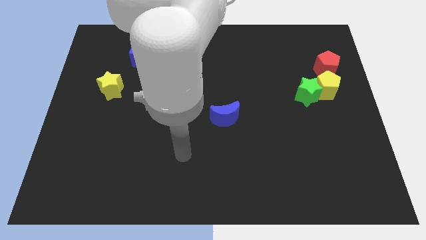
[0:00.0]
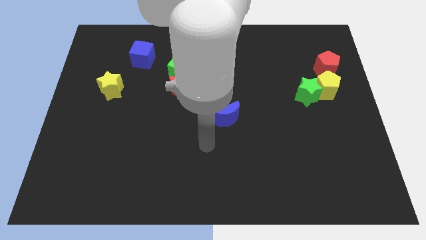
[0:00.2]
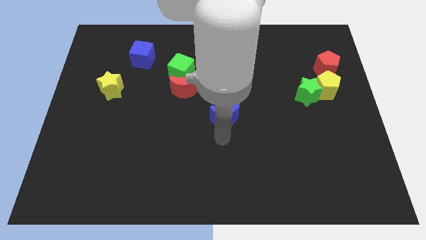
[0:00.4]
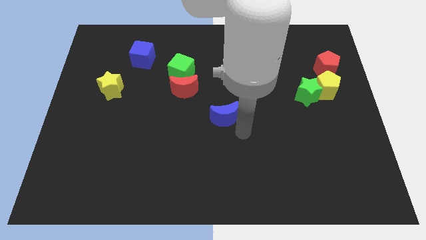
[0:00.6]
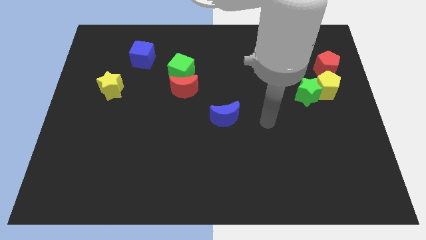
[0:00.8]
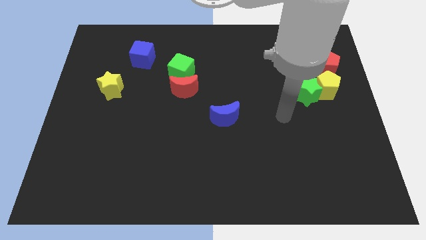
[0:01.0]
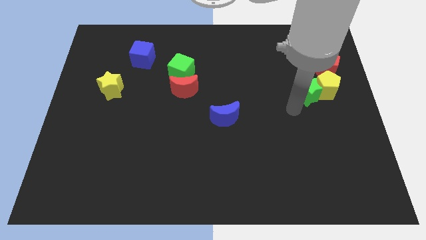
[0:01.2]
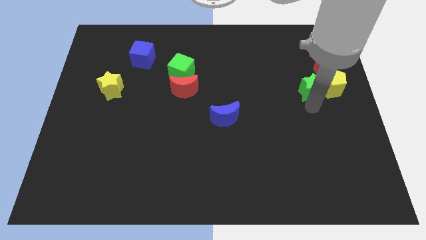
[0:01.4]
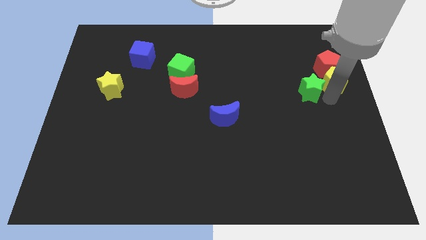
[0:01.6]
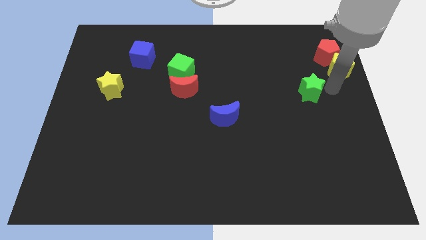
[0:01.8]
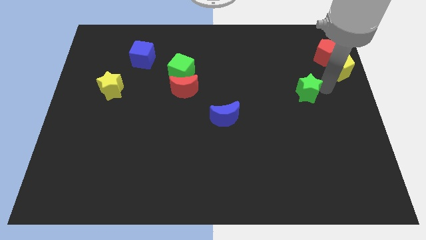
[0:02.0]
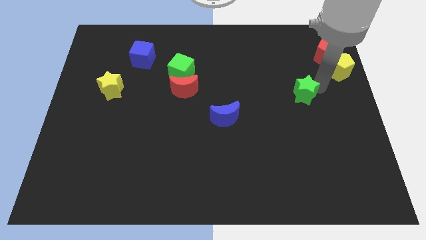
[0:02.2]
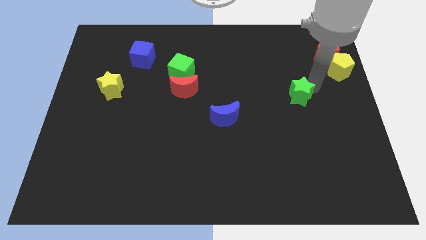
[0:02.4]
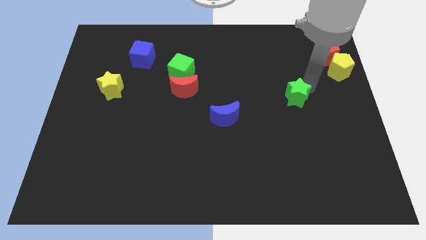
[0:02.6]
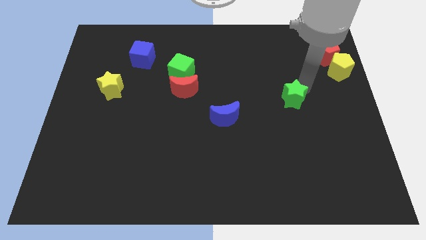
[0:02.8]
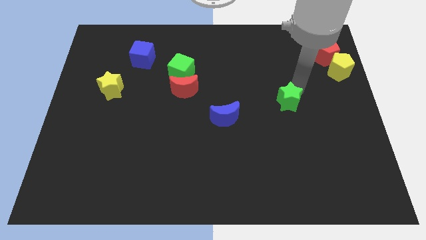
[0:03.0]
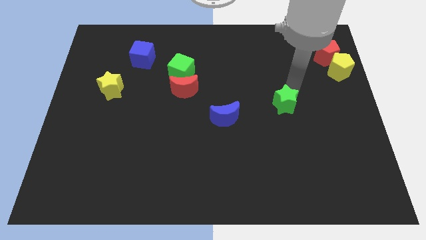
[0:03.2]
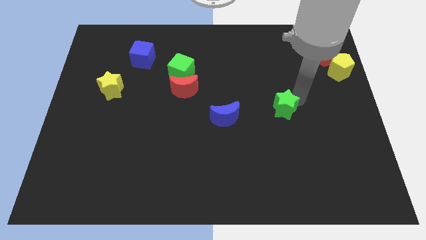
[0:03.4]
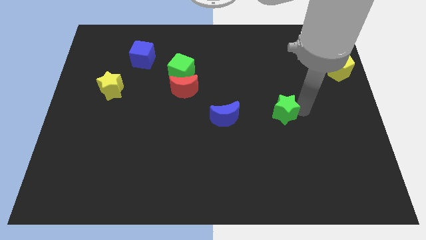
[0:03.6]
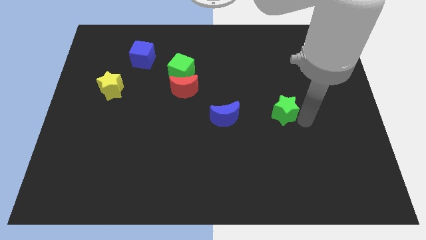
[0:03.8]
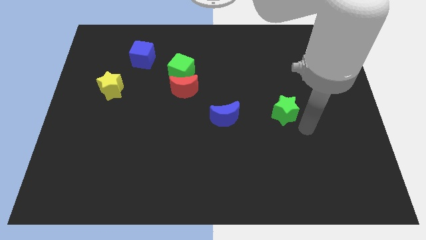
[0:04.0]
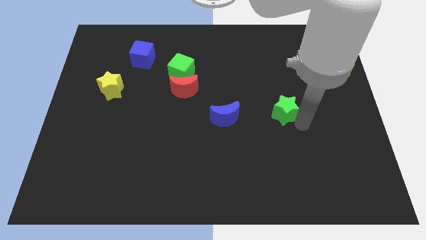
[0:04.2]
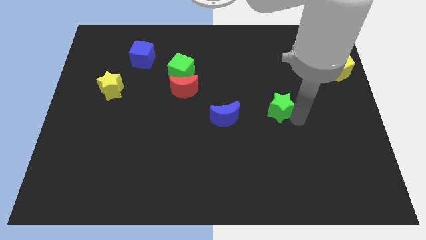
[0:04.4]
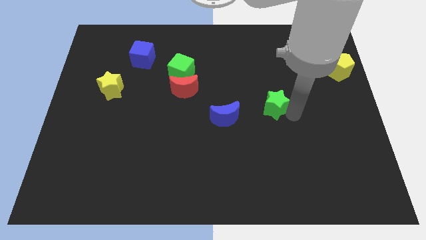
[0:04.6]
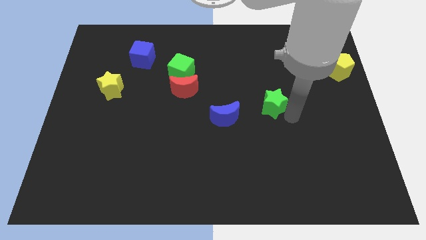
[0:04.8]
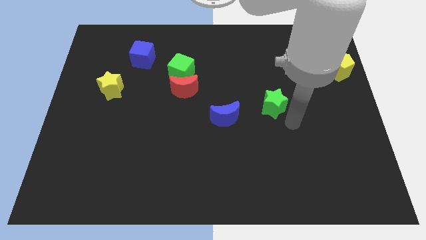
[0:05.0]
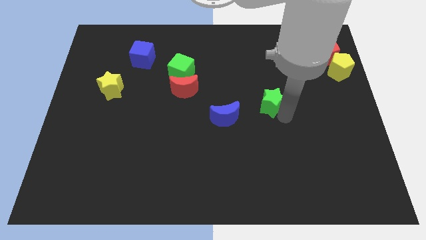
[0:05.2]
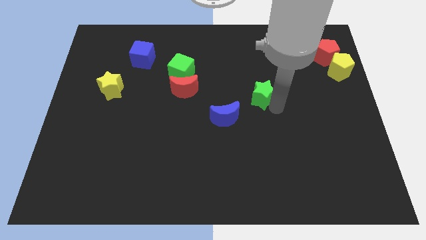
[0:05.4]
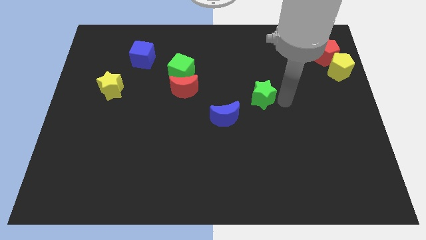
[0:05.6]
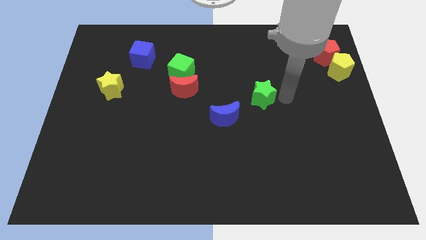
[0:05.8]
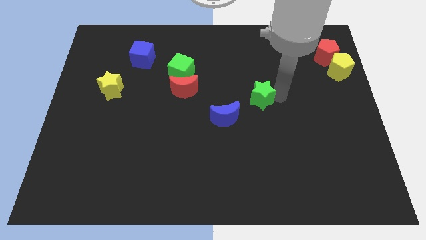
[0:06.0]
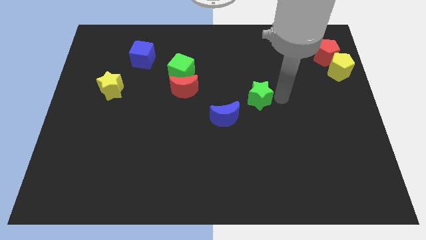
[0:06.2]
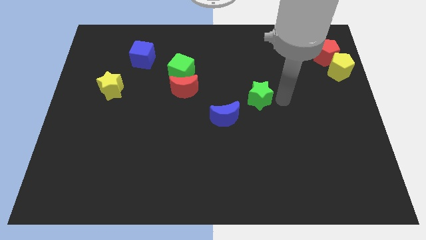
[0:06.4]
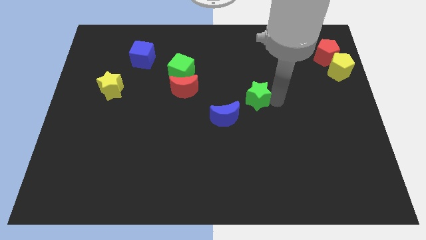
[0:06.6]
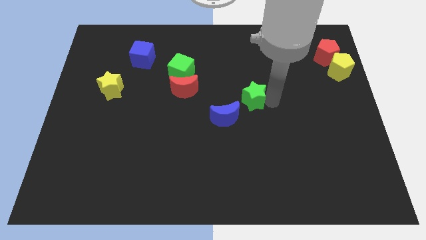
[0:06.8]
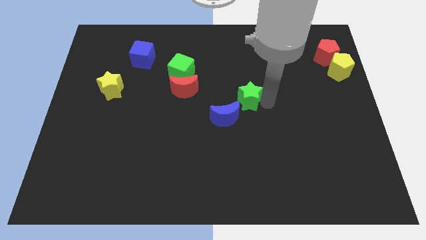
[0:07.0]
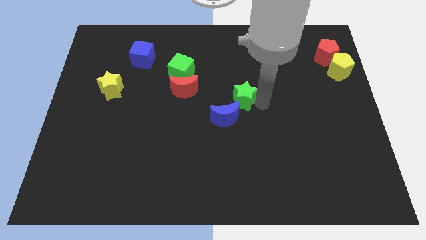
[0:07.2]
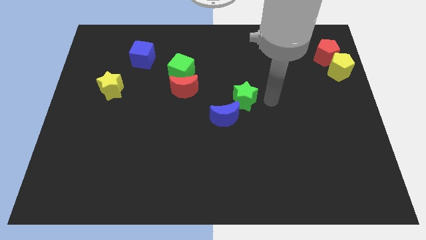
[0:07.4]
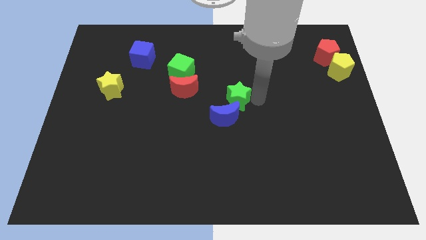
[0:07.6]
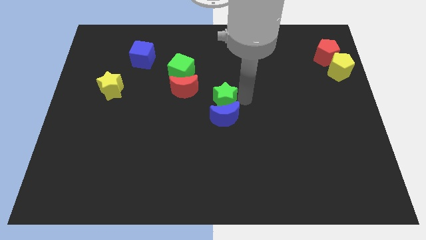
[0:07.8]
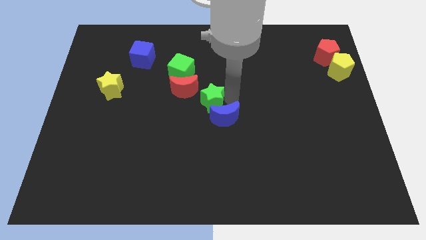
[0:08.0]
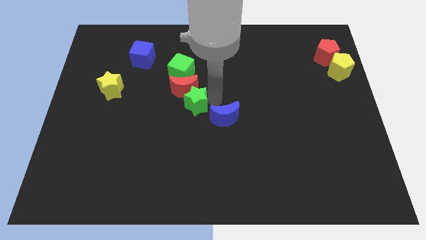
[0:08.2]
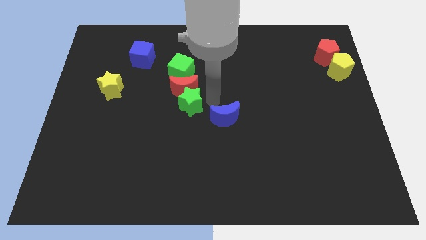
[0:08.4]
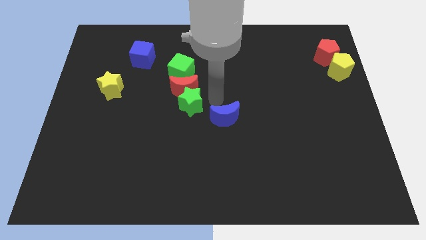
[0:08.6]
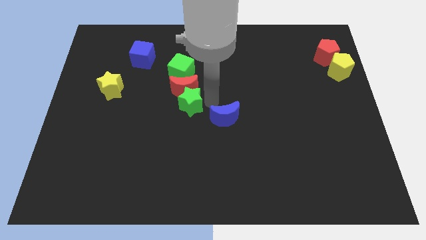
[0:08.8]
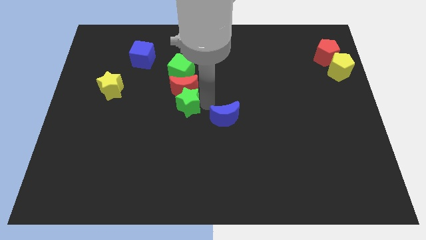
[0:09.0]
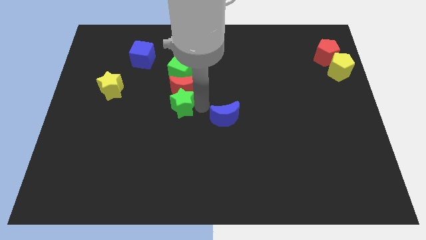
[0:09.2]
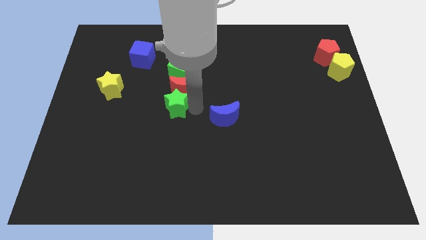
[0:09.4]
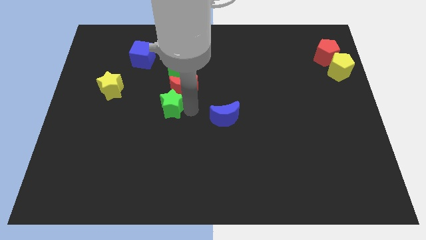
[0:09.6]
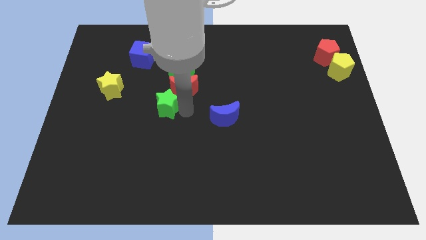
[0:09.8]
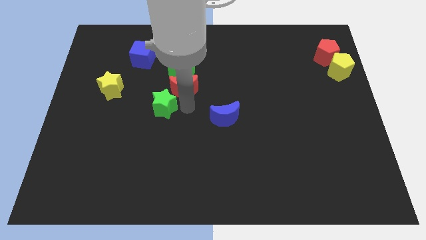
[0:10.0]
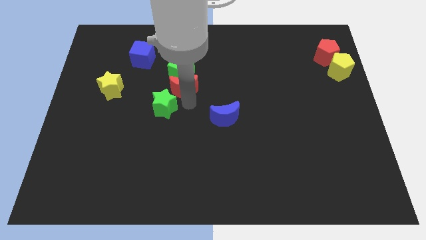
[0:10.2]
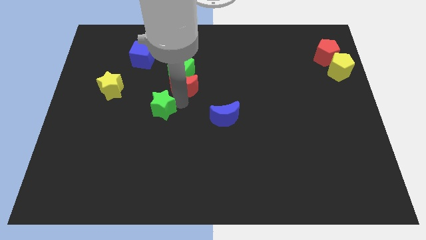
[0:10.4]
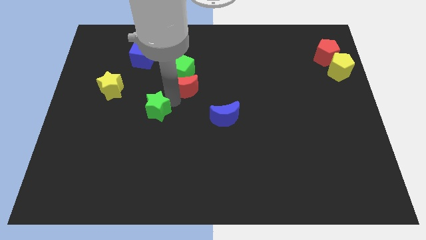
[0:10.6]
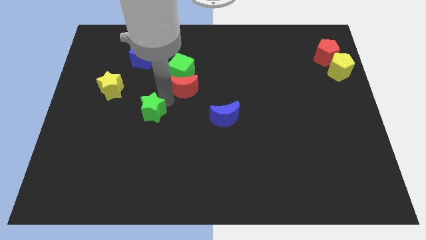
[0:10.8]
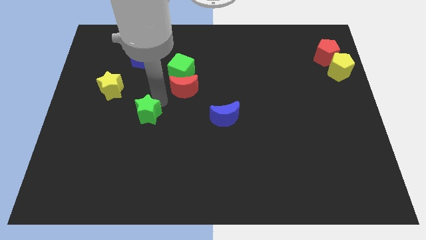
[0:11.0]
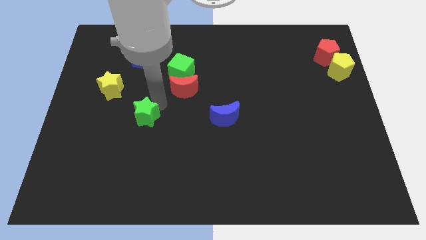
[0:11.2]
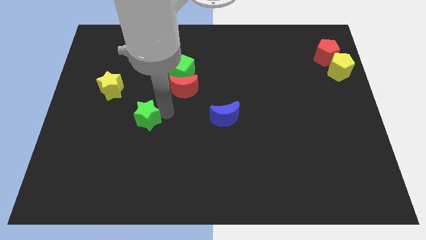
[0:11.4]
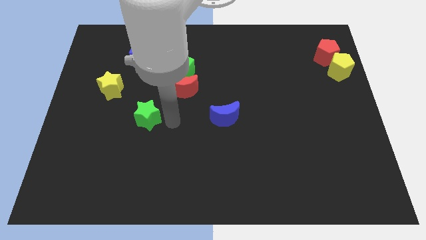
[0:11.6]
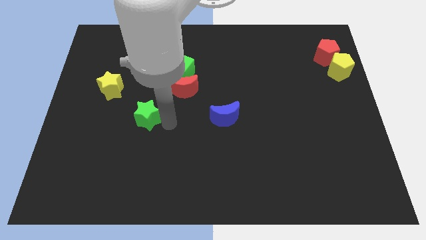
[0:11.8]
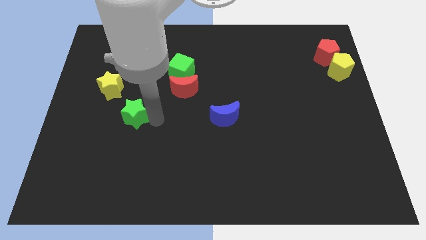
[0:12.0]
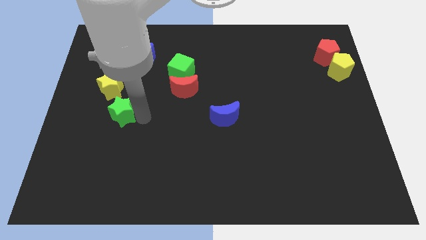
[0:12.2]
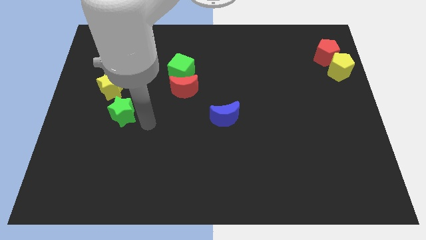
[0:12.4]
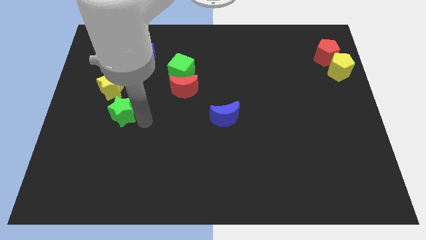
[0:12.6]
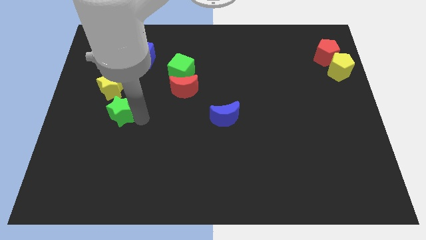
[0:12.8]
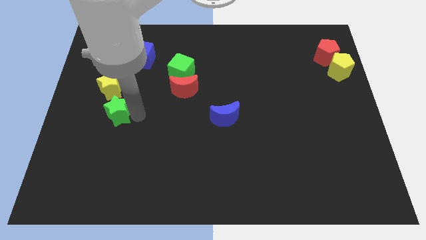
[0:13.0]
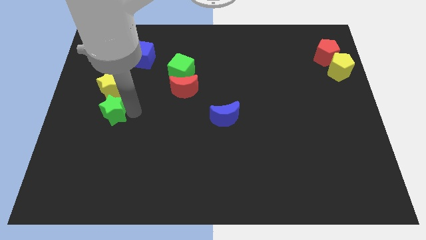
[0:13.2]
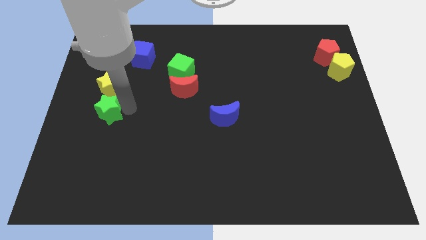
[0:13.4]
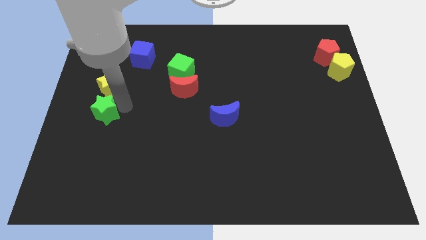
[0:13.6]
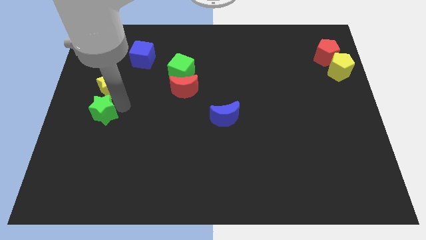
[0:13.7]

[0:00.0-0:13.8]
slide the green star to the center left
